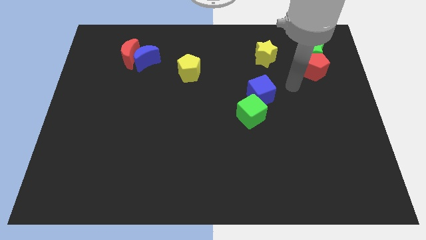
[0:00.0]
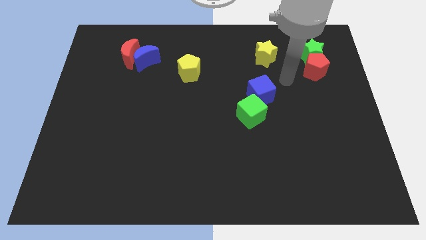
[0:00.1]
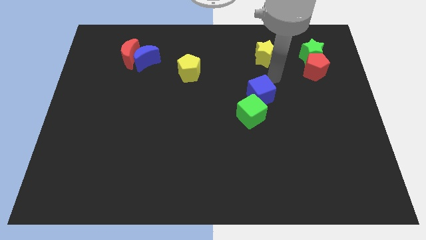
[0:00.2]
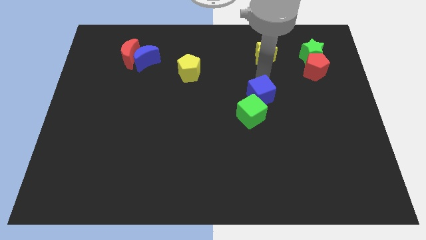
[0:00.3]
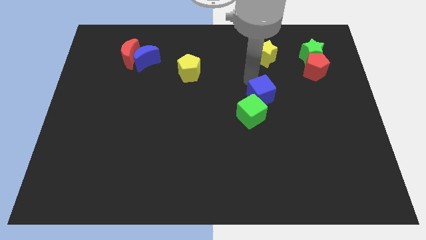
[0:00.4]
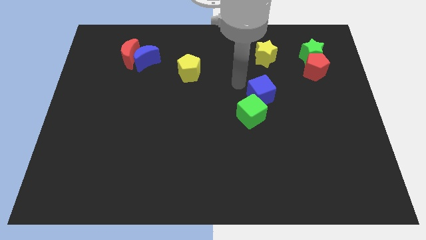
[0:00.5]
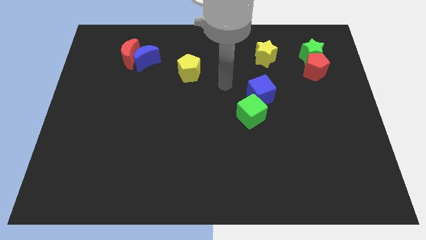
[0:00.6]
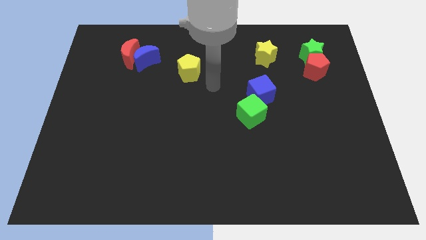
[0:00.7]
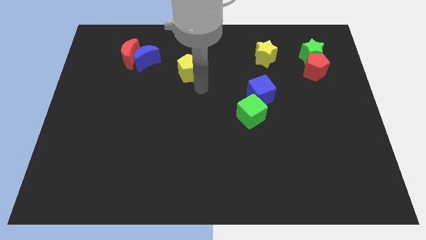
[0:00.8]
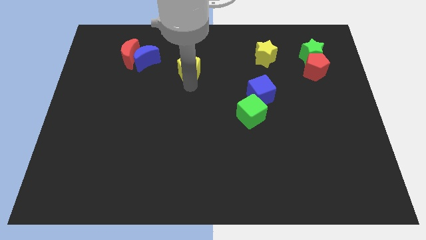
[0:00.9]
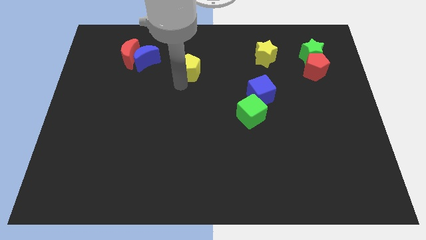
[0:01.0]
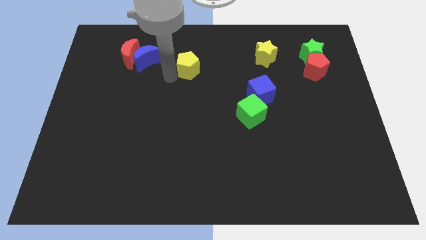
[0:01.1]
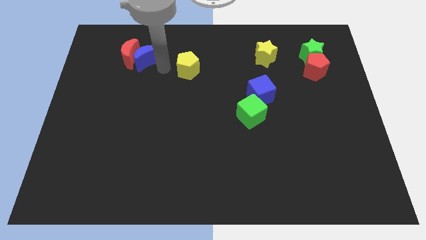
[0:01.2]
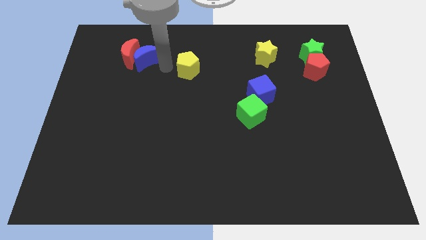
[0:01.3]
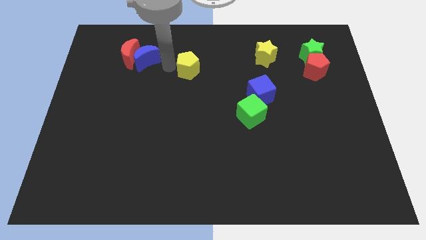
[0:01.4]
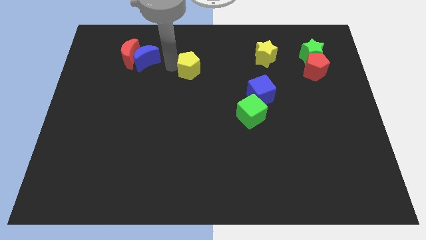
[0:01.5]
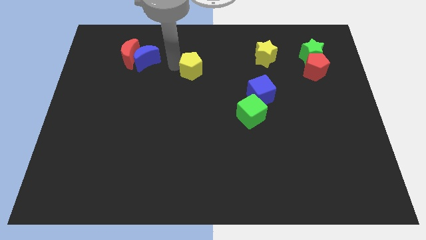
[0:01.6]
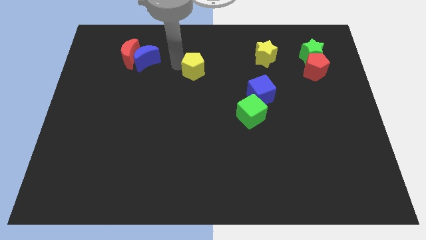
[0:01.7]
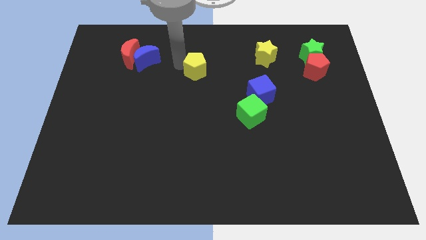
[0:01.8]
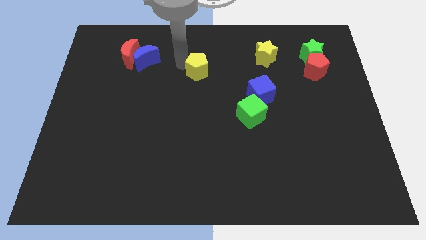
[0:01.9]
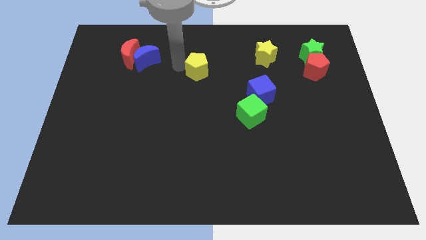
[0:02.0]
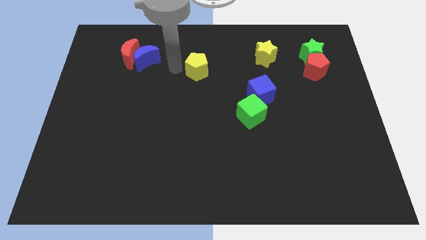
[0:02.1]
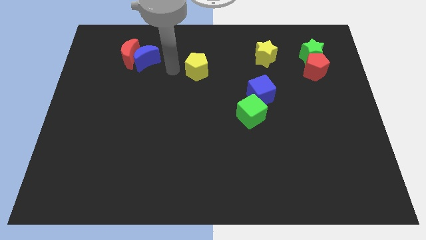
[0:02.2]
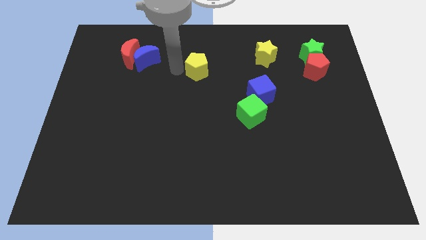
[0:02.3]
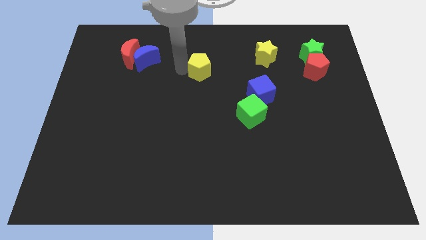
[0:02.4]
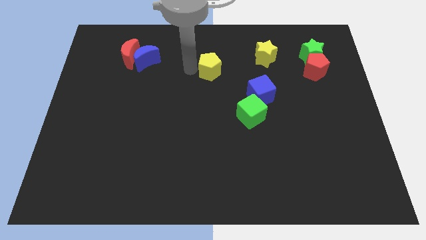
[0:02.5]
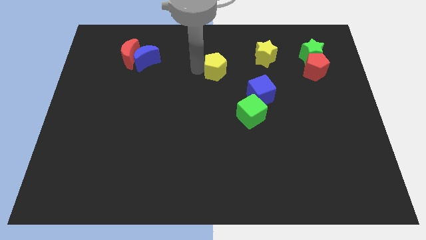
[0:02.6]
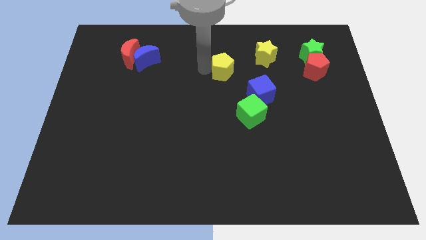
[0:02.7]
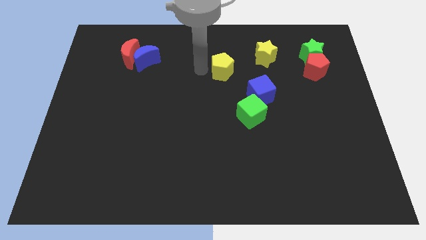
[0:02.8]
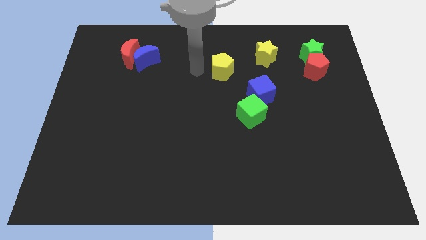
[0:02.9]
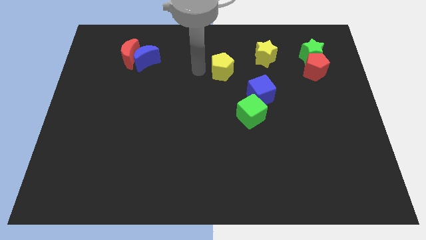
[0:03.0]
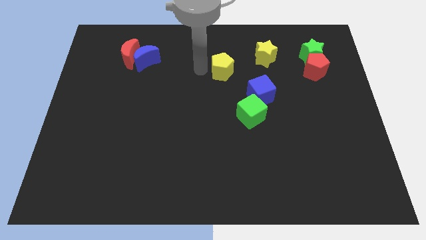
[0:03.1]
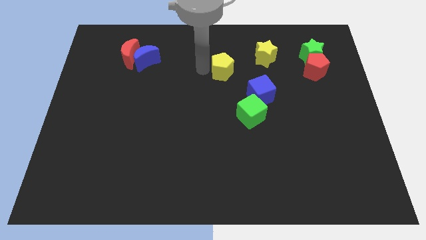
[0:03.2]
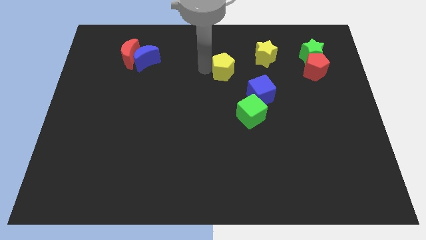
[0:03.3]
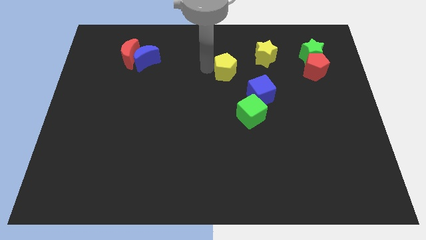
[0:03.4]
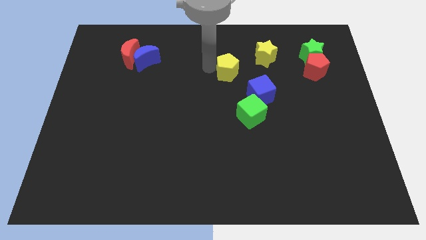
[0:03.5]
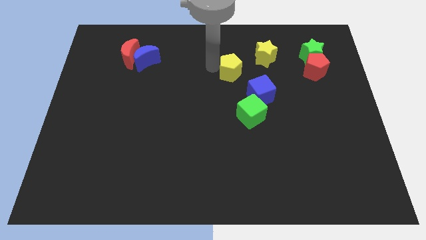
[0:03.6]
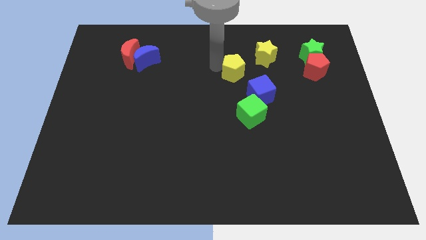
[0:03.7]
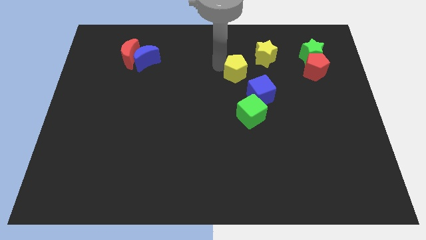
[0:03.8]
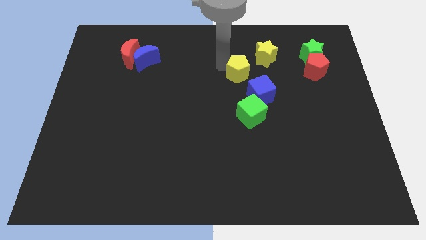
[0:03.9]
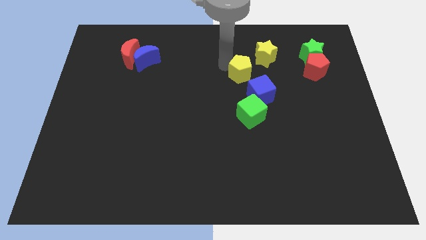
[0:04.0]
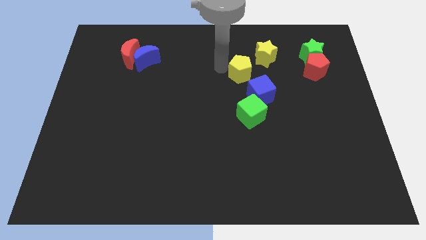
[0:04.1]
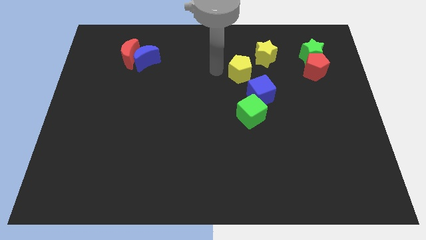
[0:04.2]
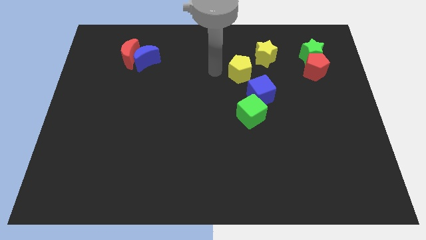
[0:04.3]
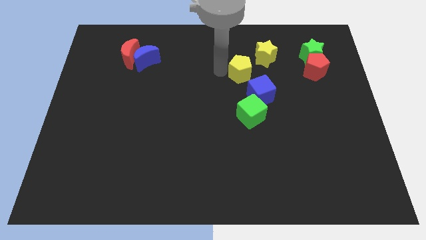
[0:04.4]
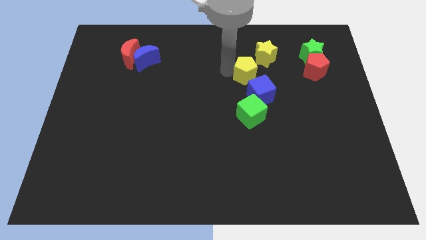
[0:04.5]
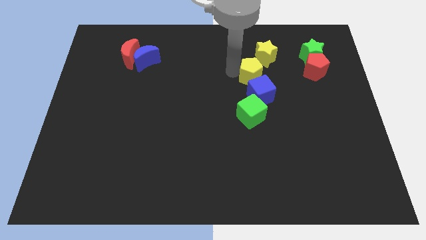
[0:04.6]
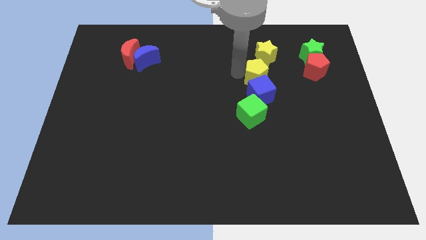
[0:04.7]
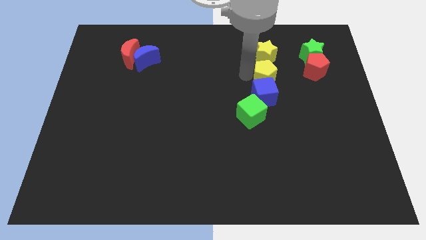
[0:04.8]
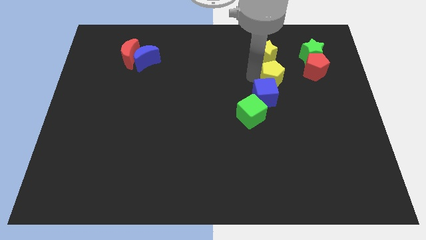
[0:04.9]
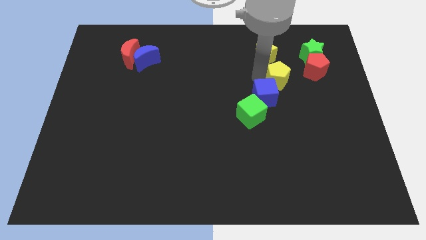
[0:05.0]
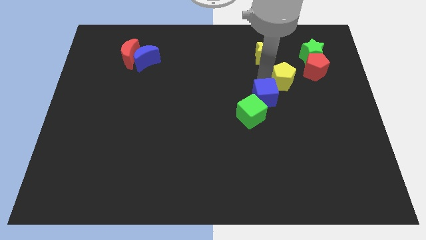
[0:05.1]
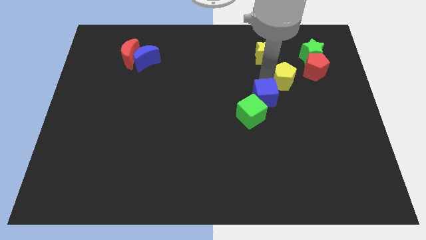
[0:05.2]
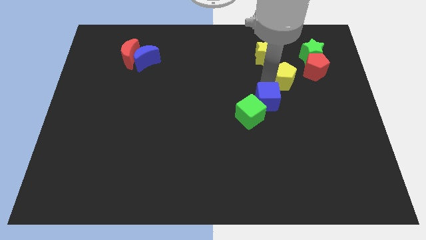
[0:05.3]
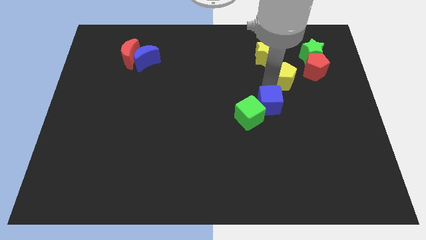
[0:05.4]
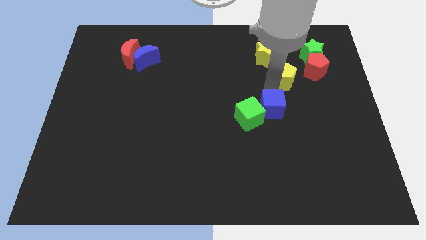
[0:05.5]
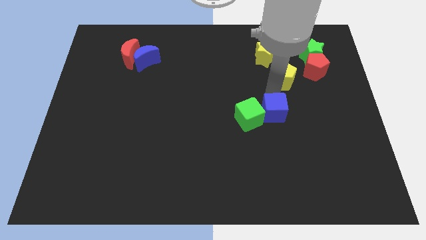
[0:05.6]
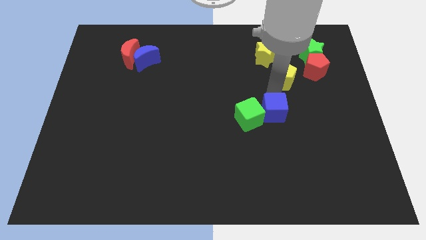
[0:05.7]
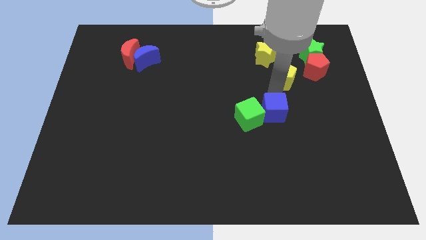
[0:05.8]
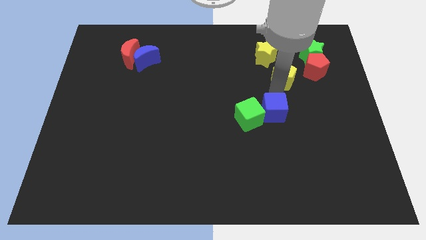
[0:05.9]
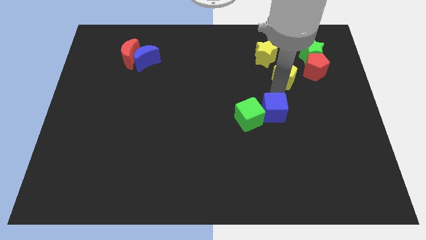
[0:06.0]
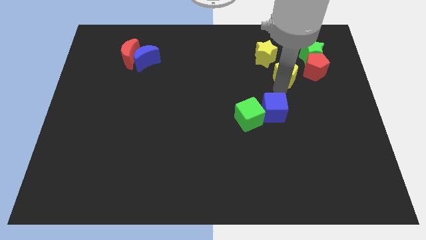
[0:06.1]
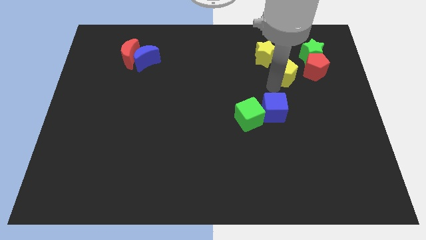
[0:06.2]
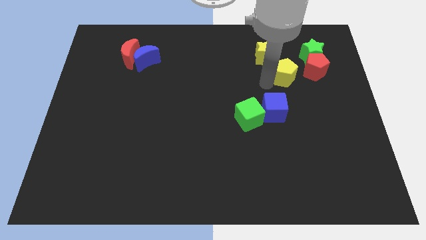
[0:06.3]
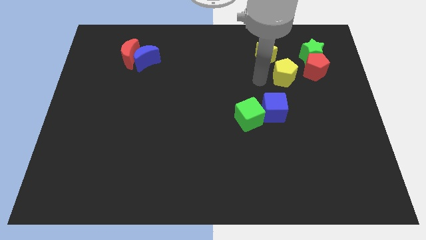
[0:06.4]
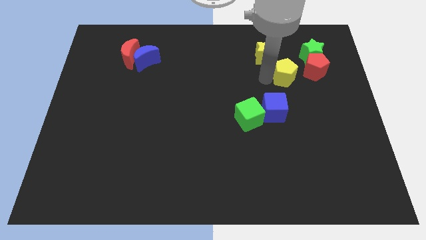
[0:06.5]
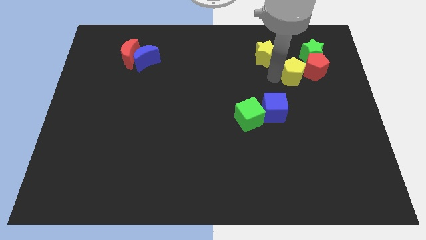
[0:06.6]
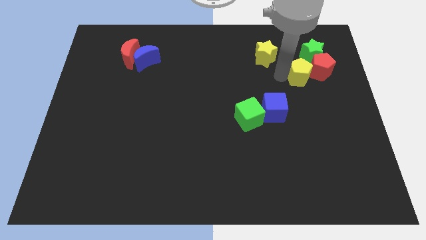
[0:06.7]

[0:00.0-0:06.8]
slide the yellow pentagon close to the red pentagon

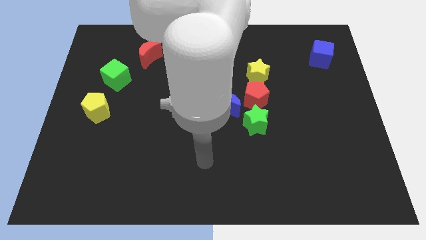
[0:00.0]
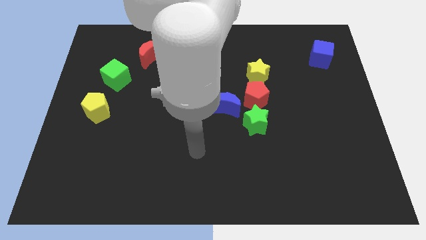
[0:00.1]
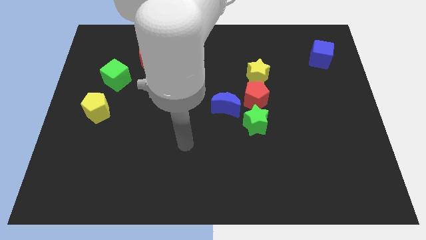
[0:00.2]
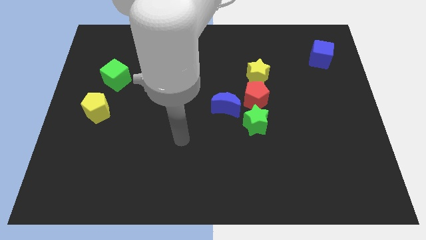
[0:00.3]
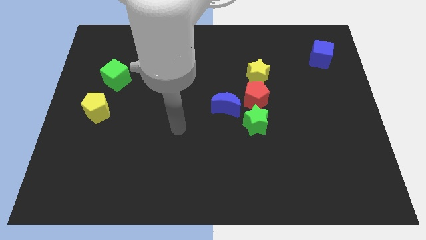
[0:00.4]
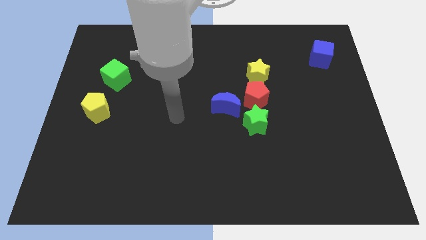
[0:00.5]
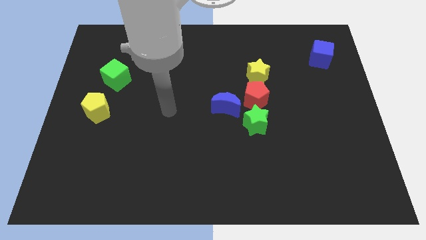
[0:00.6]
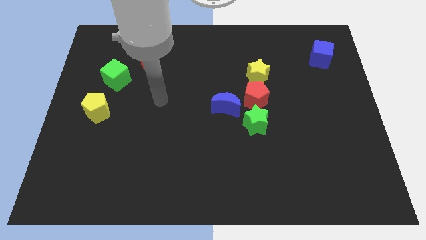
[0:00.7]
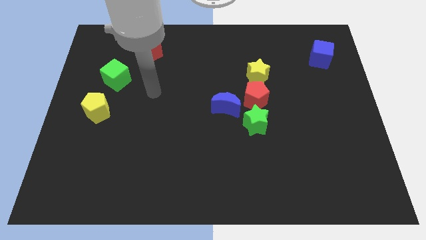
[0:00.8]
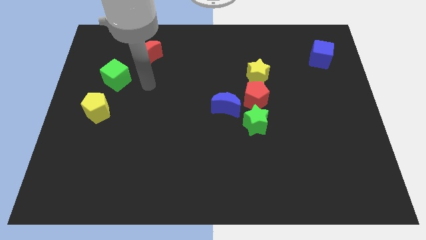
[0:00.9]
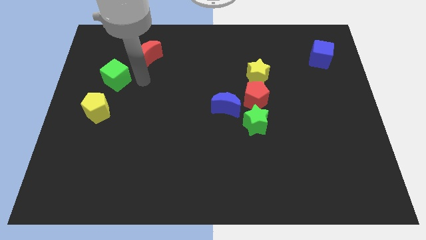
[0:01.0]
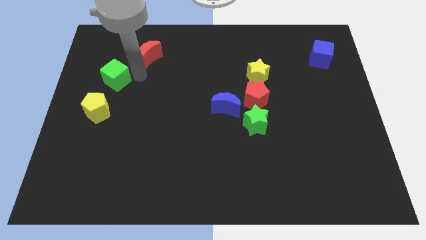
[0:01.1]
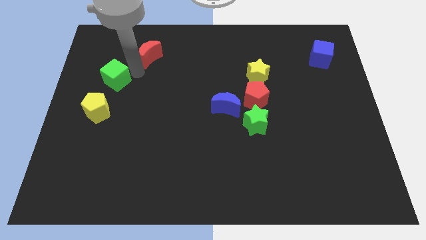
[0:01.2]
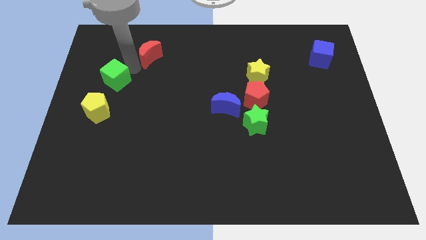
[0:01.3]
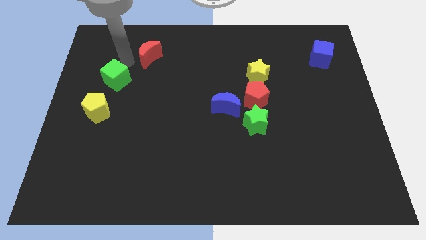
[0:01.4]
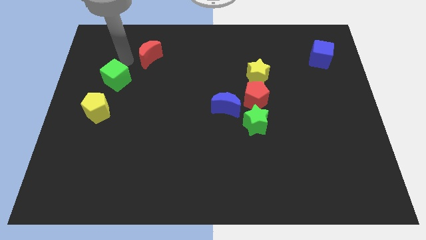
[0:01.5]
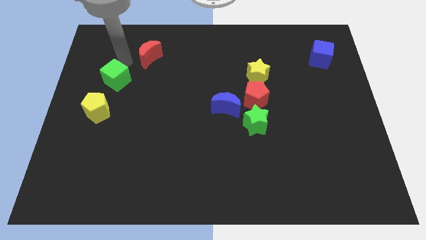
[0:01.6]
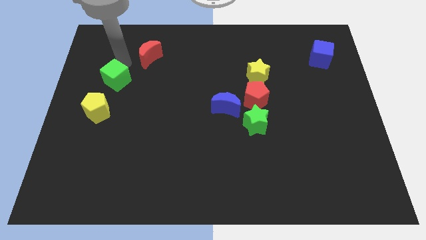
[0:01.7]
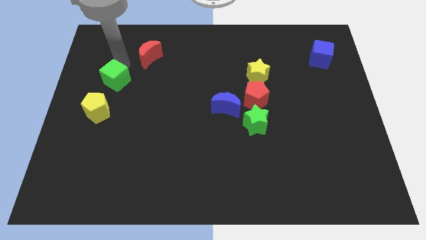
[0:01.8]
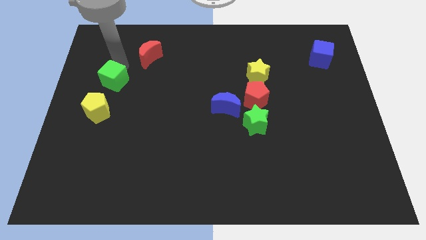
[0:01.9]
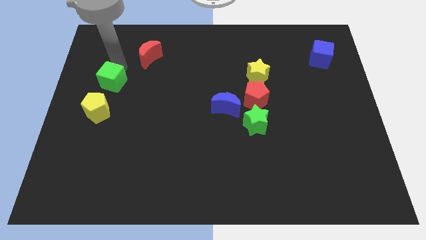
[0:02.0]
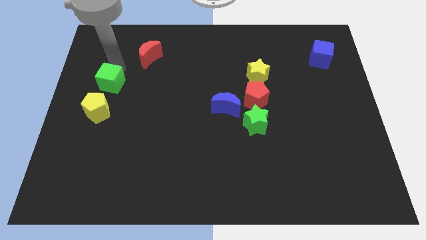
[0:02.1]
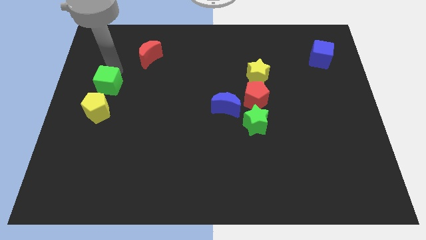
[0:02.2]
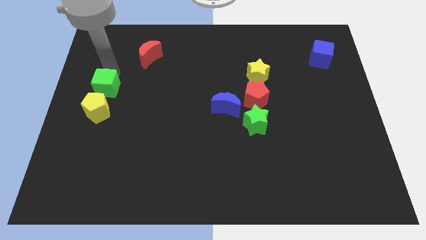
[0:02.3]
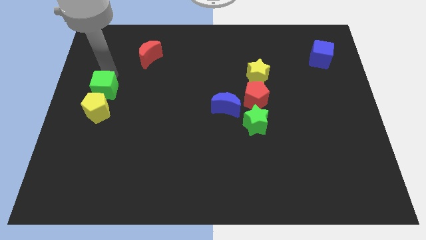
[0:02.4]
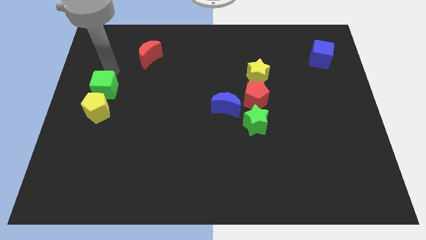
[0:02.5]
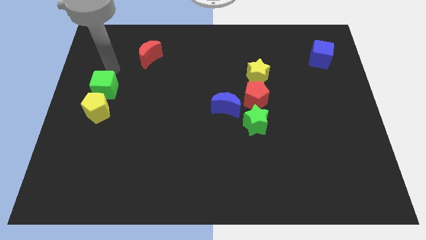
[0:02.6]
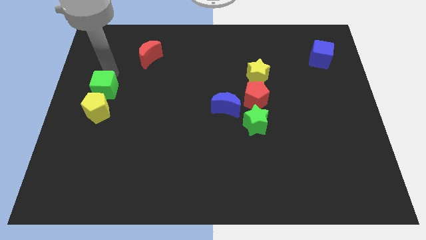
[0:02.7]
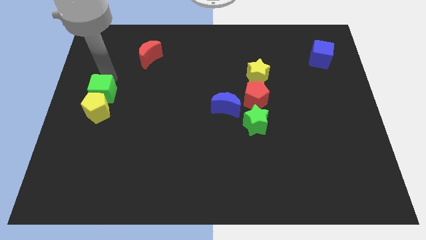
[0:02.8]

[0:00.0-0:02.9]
slide the green cube close to the yellow pentagon
